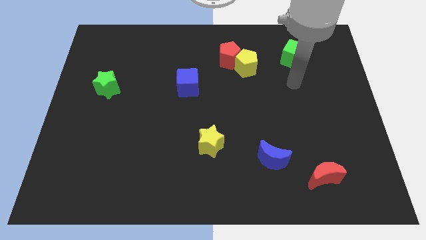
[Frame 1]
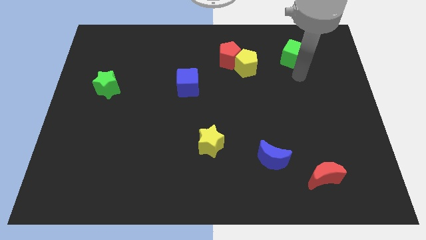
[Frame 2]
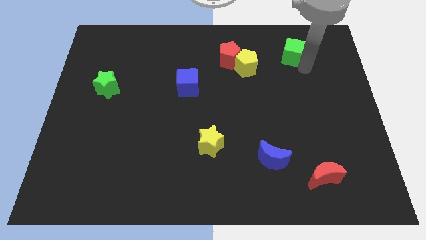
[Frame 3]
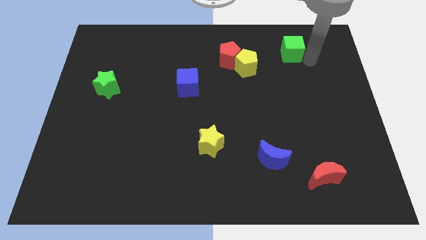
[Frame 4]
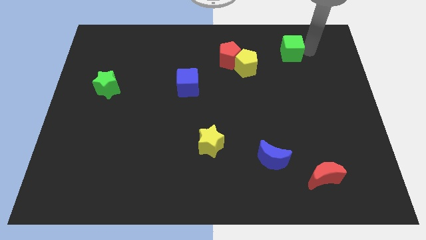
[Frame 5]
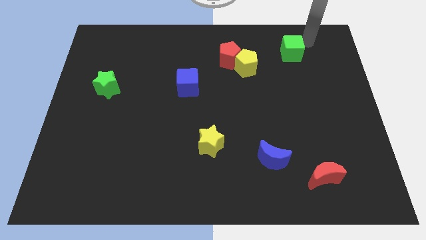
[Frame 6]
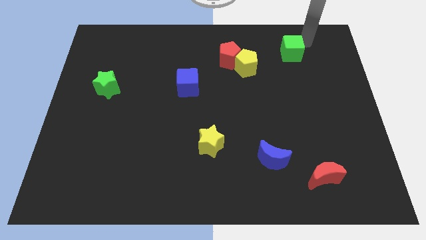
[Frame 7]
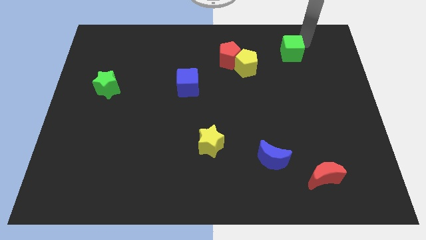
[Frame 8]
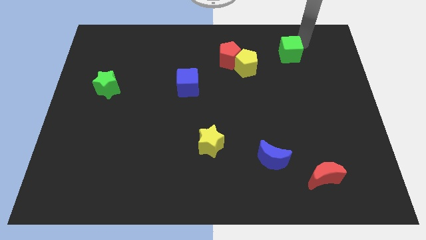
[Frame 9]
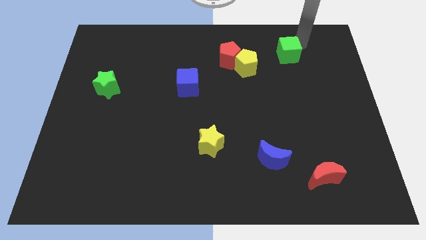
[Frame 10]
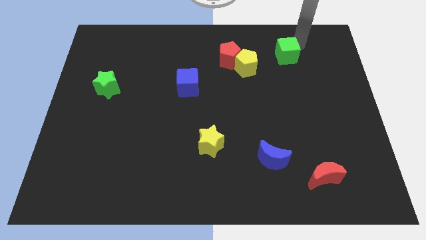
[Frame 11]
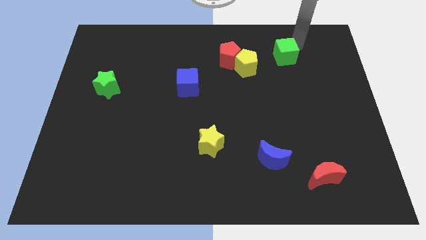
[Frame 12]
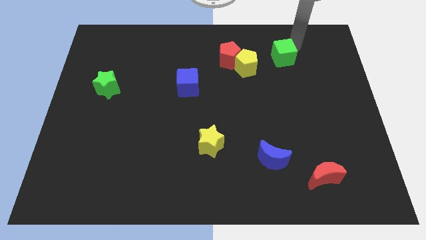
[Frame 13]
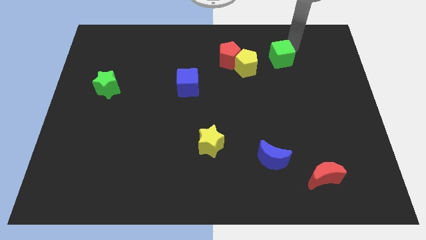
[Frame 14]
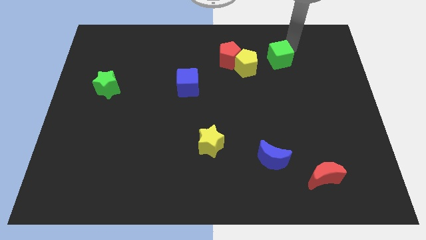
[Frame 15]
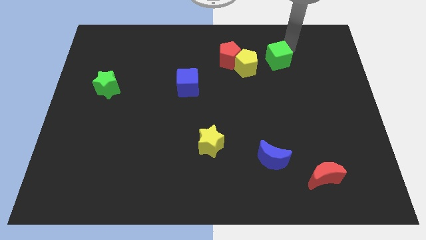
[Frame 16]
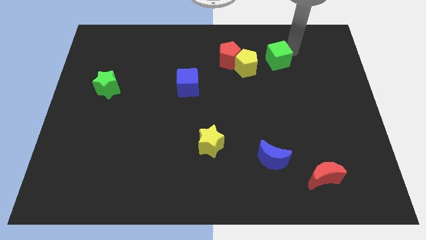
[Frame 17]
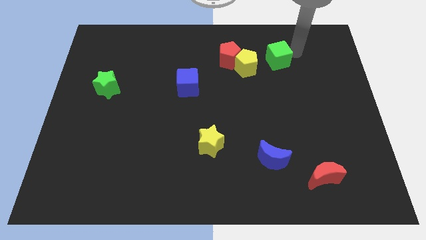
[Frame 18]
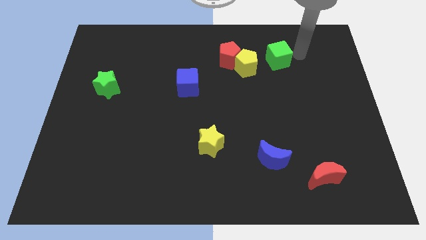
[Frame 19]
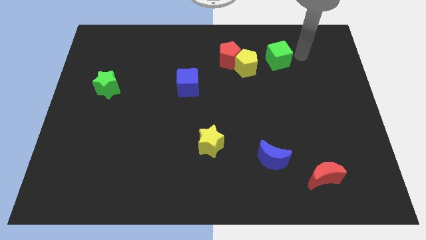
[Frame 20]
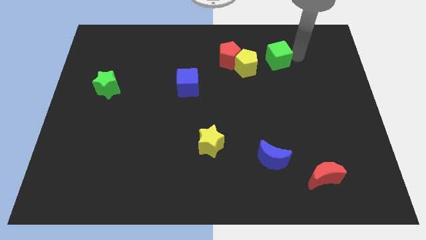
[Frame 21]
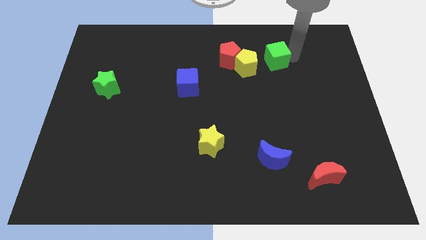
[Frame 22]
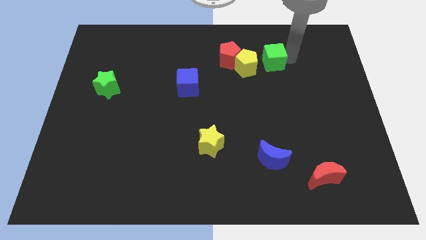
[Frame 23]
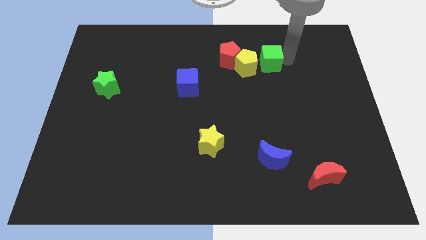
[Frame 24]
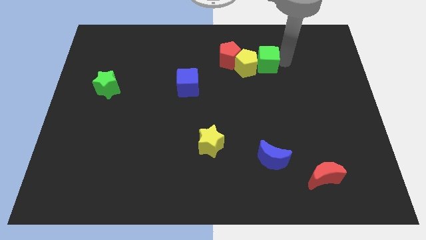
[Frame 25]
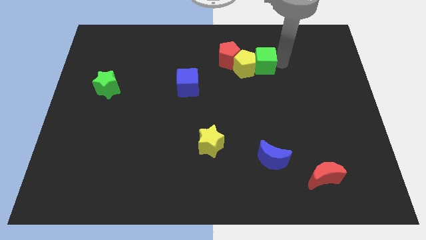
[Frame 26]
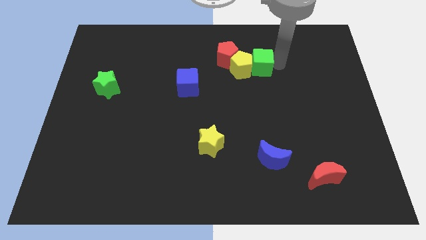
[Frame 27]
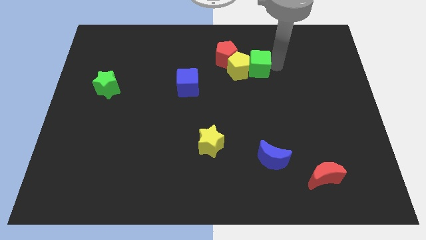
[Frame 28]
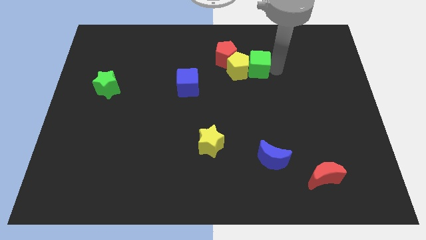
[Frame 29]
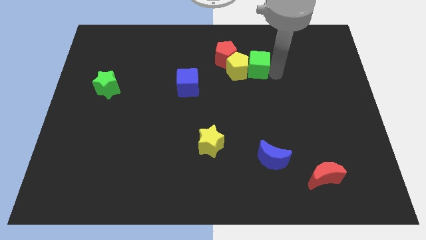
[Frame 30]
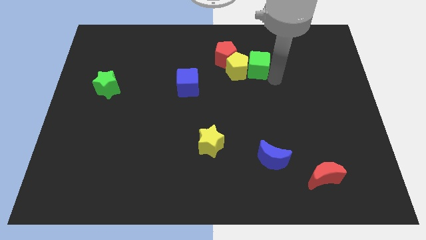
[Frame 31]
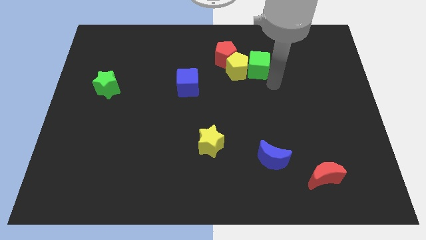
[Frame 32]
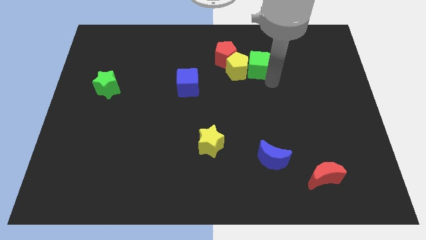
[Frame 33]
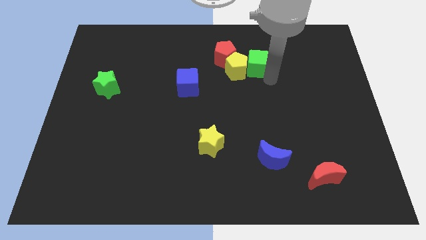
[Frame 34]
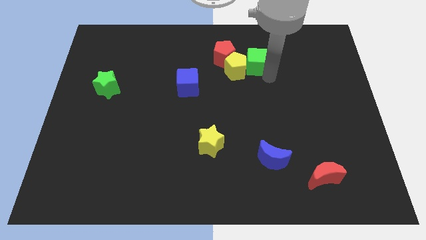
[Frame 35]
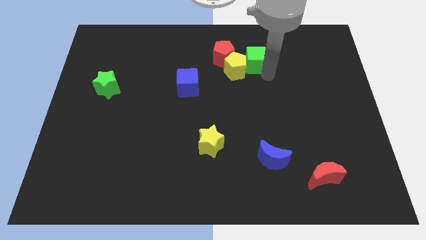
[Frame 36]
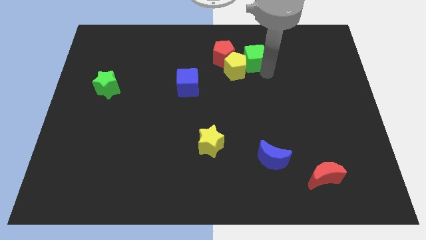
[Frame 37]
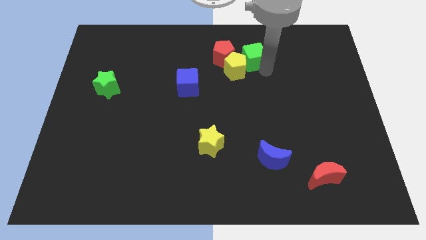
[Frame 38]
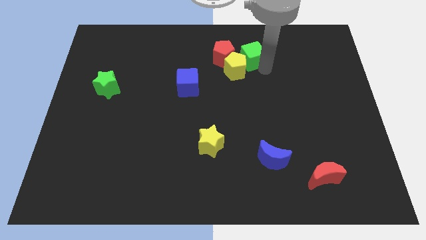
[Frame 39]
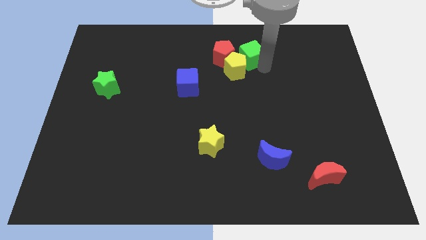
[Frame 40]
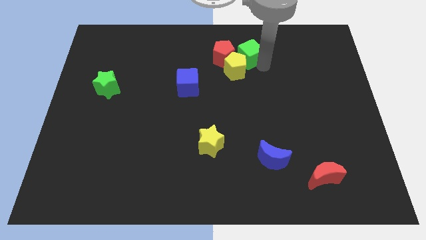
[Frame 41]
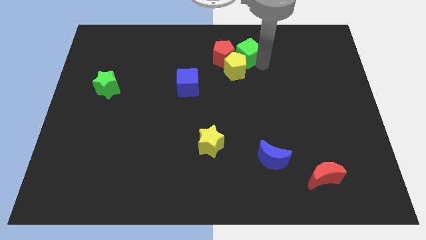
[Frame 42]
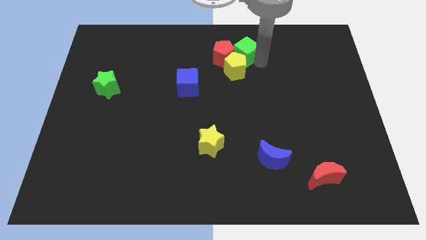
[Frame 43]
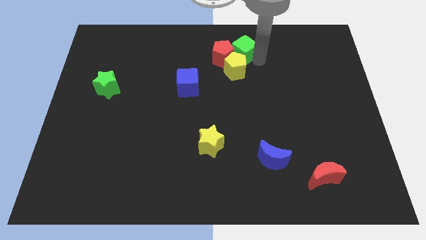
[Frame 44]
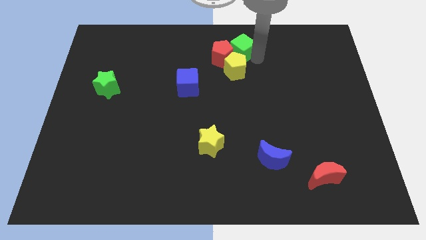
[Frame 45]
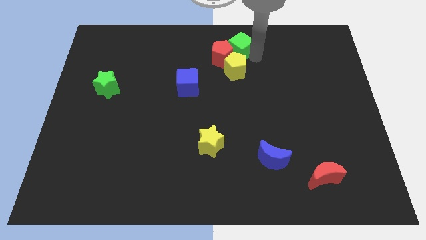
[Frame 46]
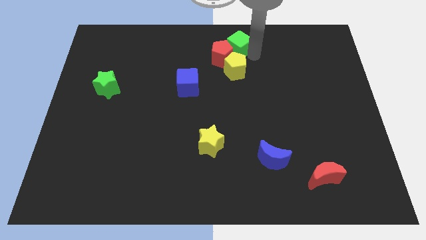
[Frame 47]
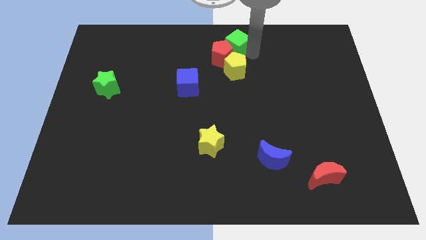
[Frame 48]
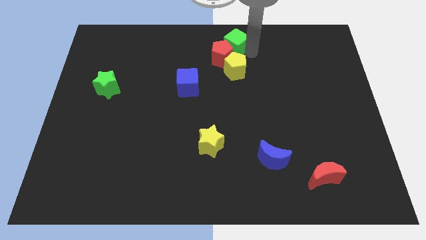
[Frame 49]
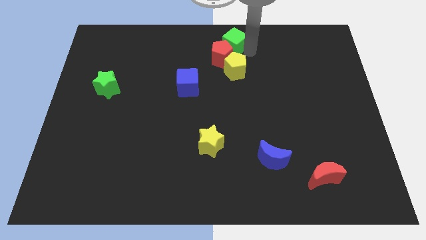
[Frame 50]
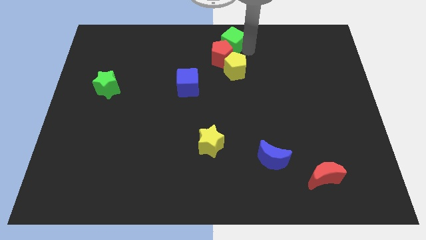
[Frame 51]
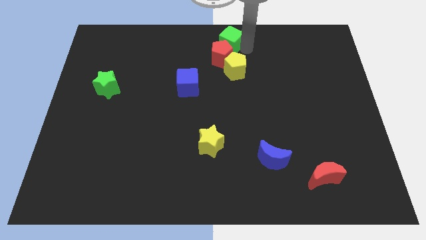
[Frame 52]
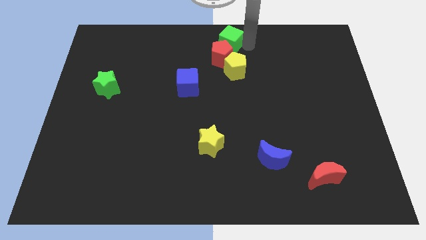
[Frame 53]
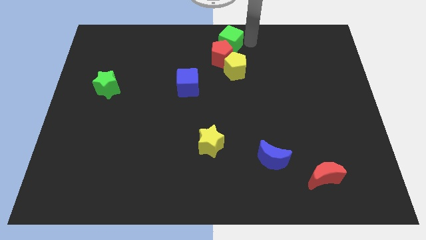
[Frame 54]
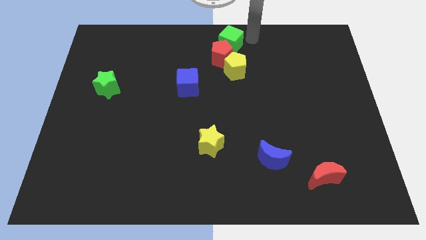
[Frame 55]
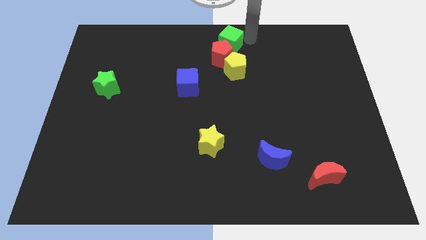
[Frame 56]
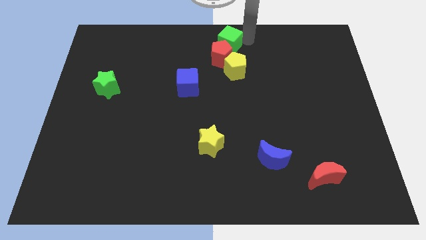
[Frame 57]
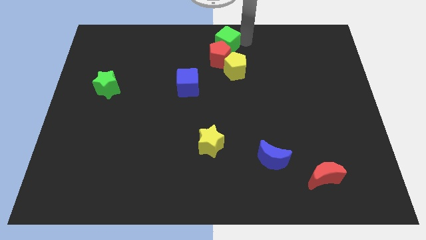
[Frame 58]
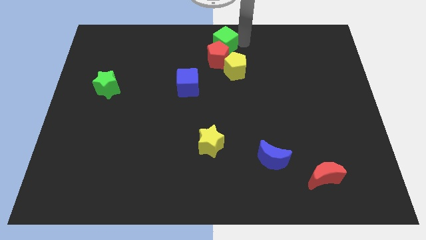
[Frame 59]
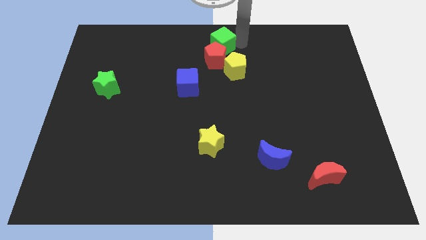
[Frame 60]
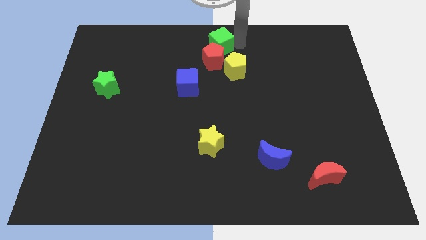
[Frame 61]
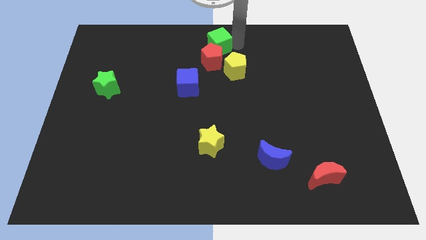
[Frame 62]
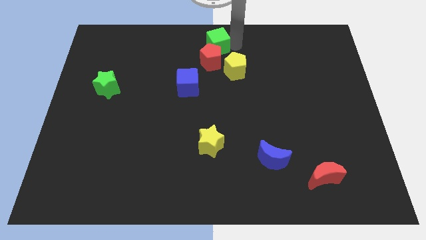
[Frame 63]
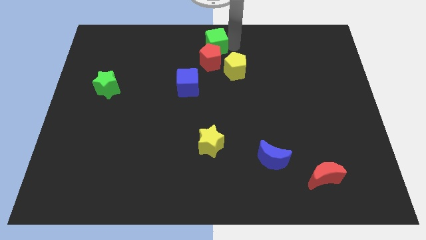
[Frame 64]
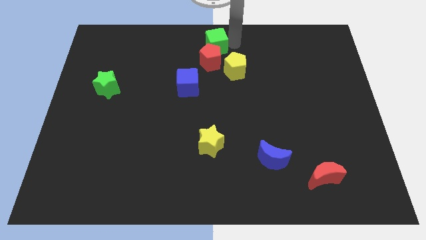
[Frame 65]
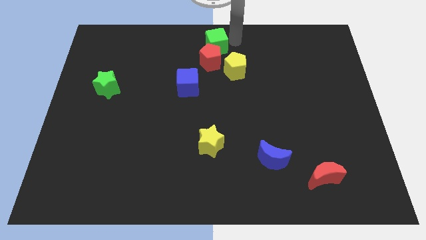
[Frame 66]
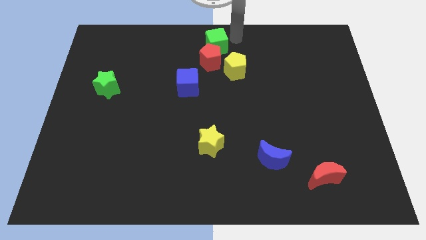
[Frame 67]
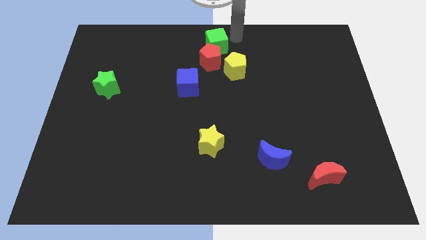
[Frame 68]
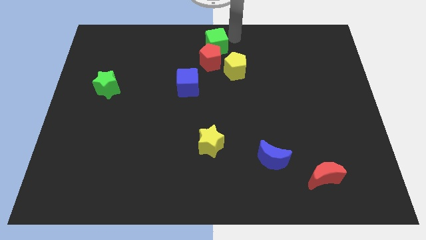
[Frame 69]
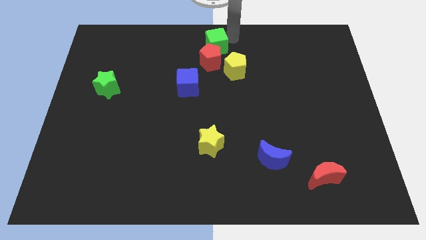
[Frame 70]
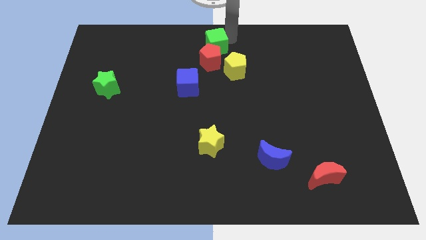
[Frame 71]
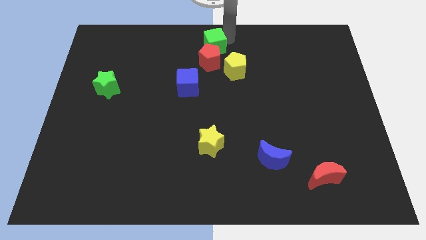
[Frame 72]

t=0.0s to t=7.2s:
move the green cube left

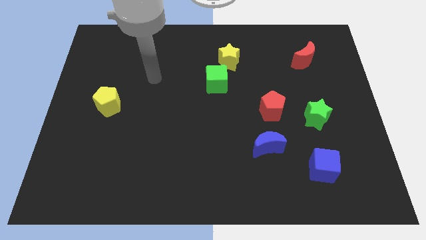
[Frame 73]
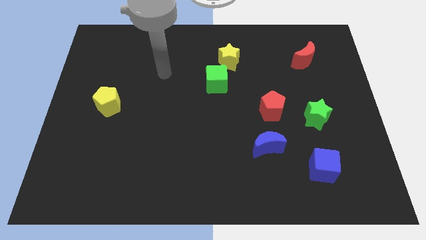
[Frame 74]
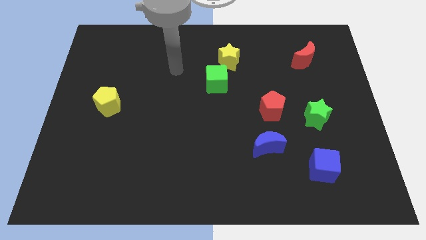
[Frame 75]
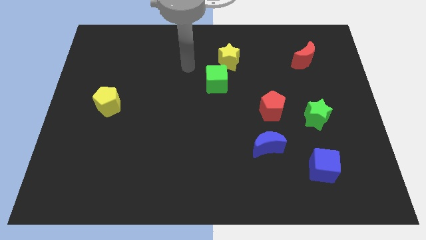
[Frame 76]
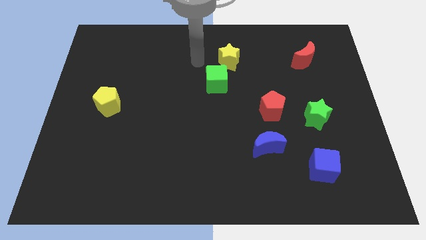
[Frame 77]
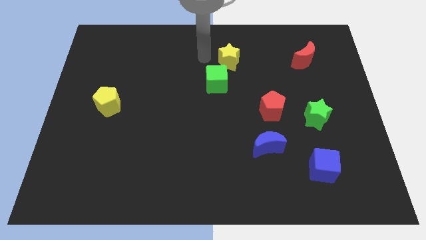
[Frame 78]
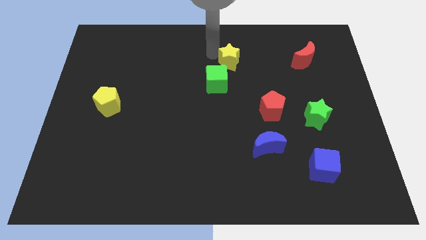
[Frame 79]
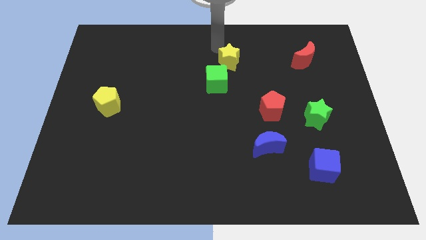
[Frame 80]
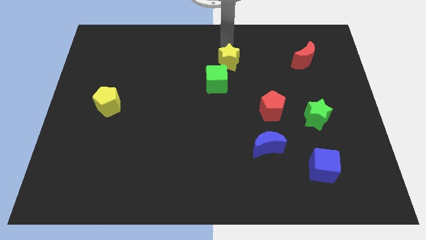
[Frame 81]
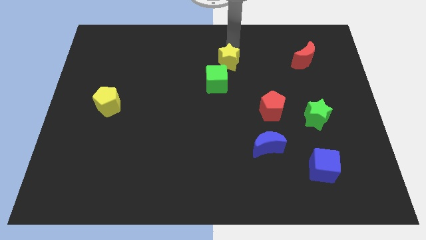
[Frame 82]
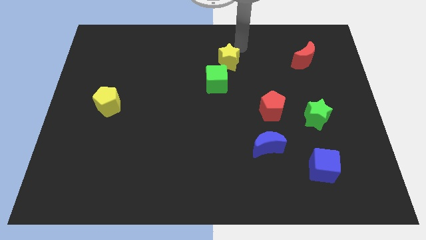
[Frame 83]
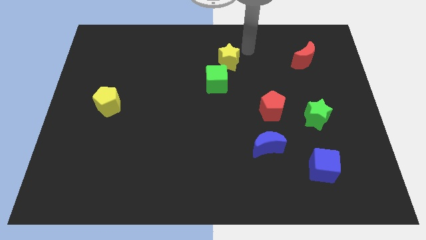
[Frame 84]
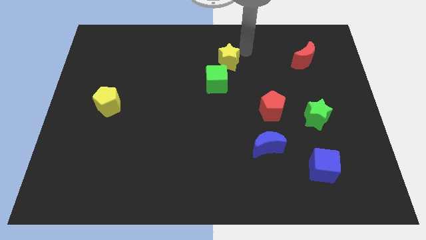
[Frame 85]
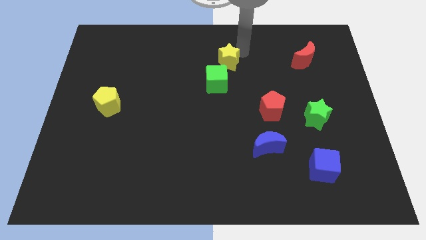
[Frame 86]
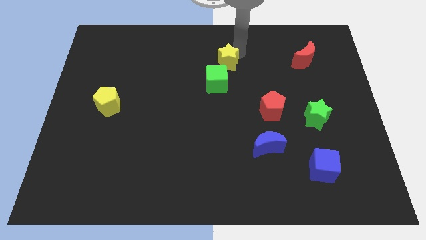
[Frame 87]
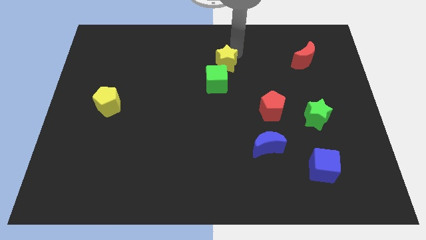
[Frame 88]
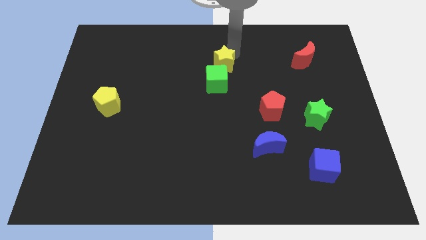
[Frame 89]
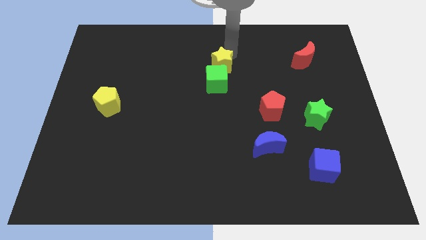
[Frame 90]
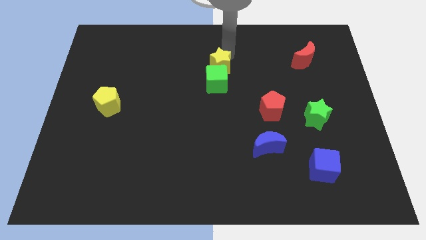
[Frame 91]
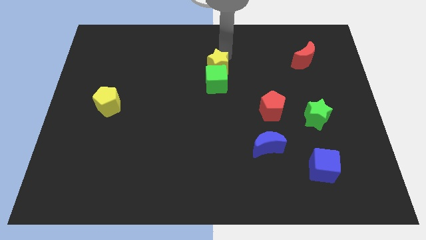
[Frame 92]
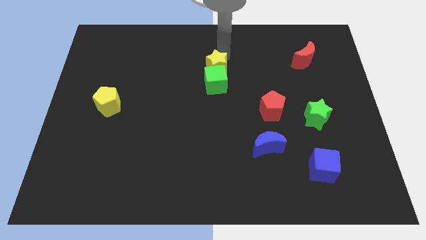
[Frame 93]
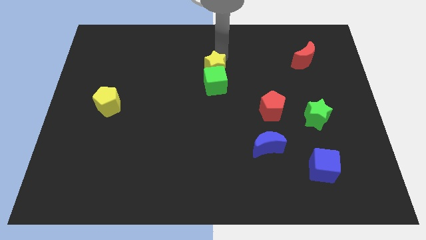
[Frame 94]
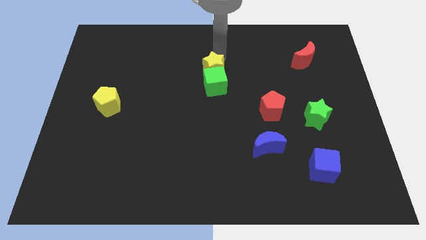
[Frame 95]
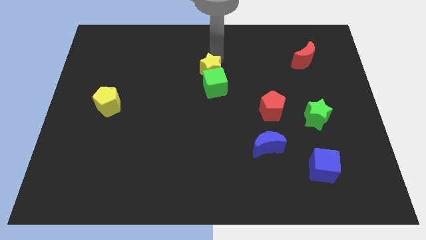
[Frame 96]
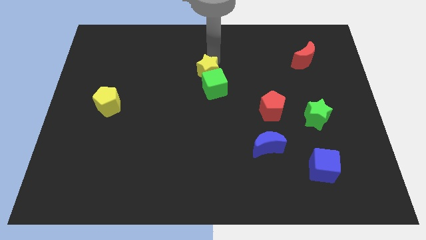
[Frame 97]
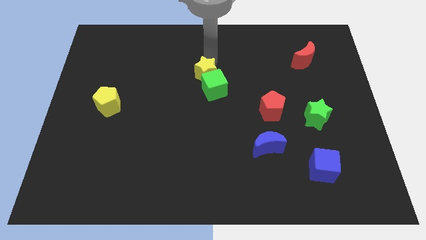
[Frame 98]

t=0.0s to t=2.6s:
push the yellow star diagonally downwards and to the left a bit
